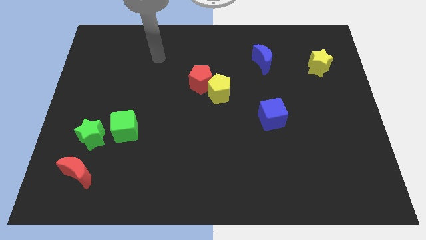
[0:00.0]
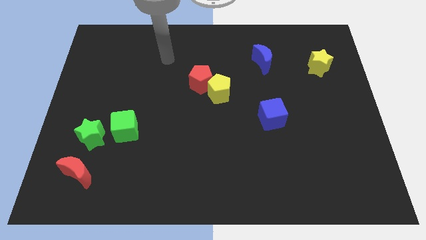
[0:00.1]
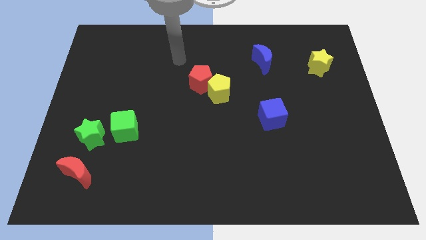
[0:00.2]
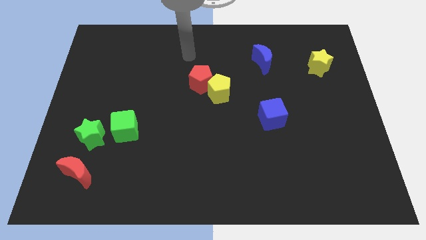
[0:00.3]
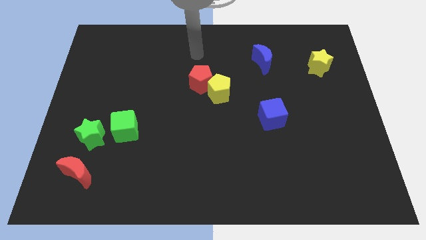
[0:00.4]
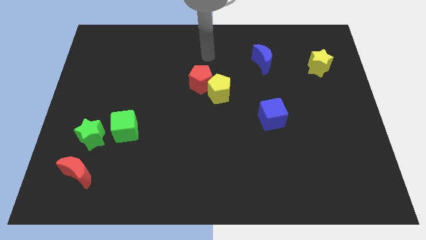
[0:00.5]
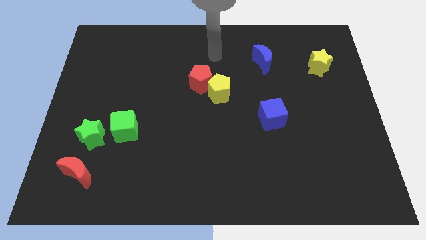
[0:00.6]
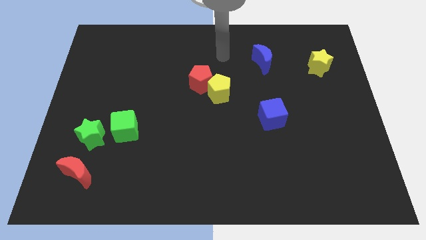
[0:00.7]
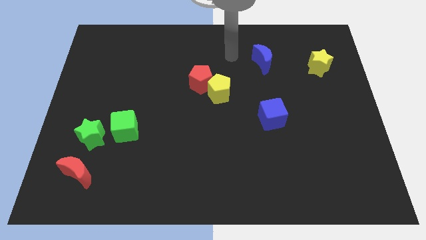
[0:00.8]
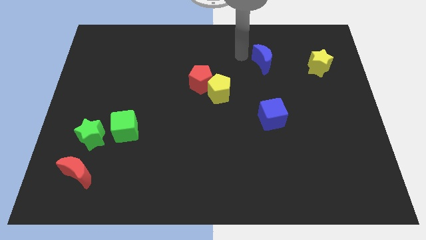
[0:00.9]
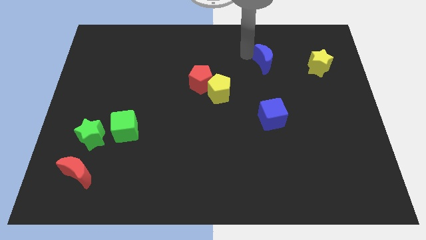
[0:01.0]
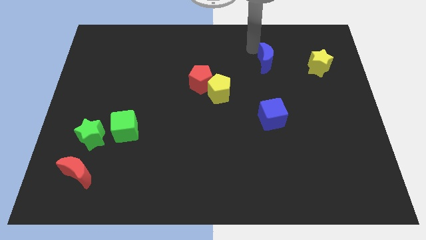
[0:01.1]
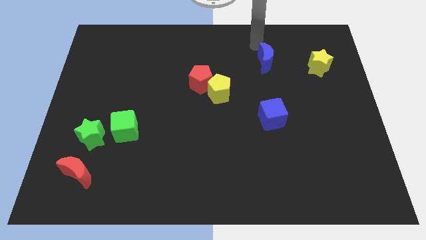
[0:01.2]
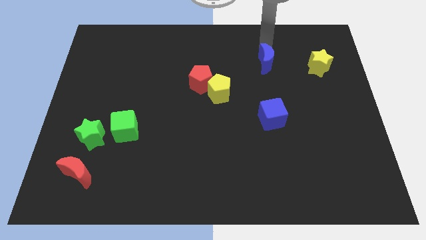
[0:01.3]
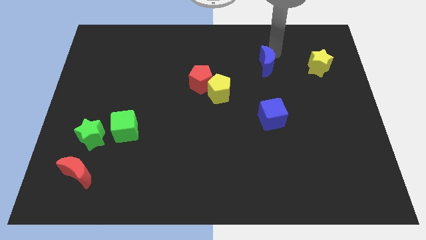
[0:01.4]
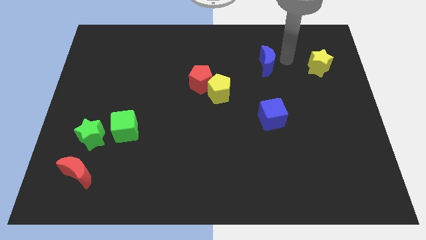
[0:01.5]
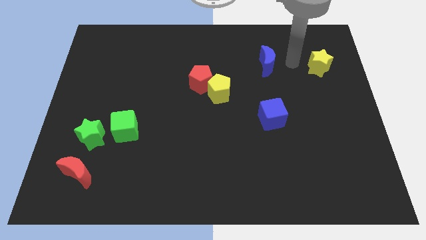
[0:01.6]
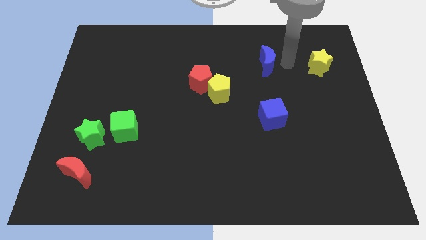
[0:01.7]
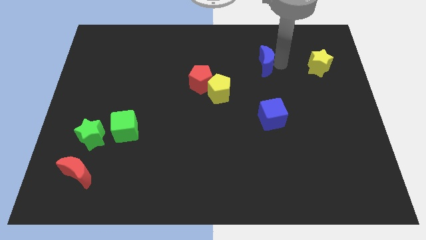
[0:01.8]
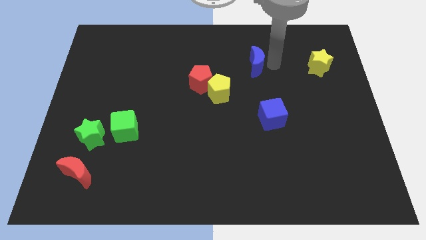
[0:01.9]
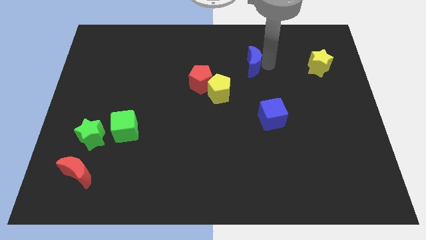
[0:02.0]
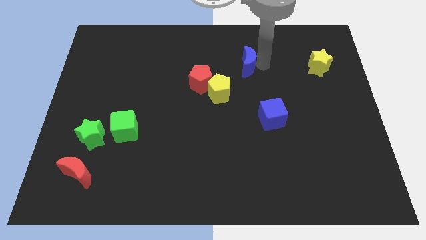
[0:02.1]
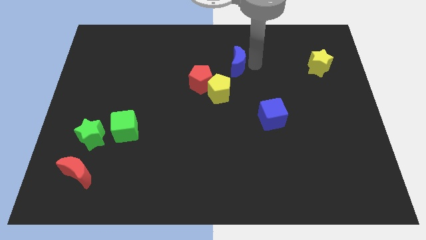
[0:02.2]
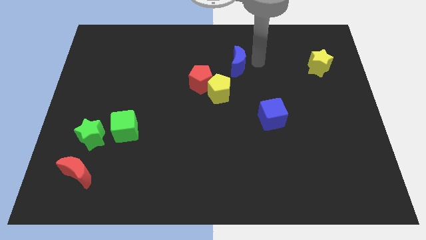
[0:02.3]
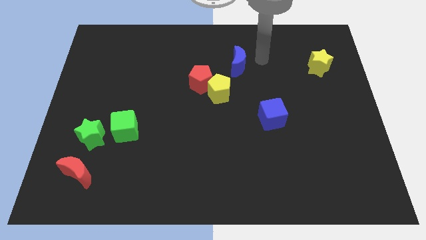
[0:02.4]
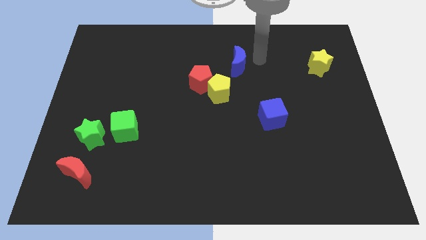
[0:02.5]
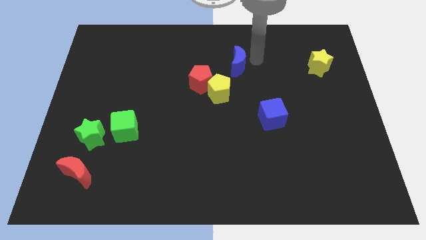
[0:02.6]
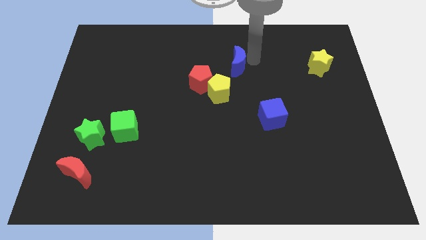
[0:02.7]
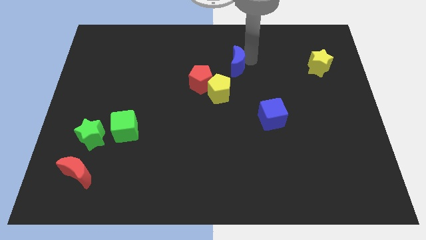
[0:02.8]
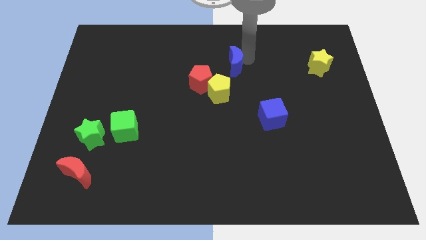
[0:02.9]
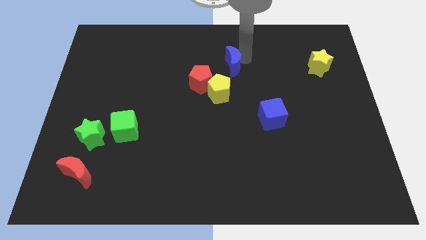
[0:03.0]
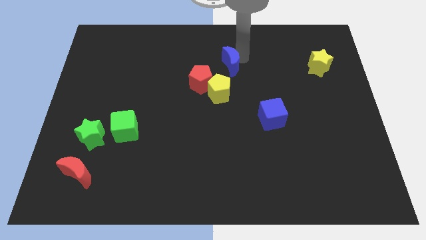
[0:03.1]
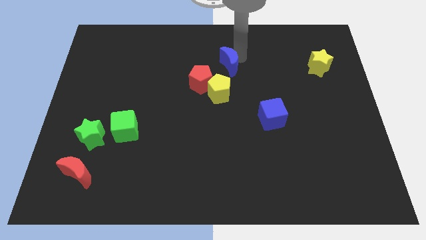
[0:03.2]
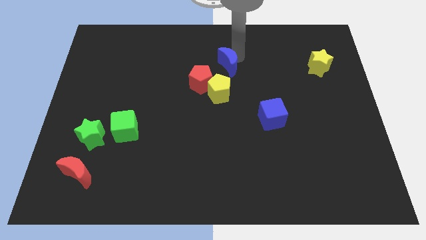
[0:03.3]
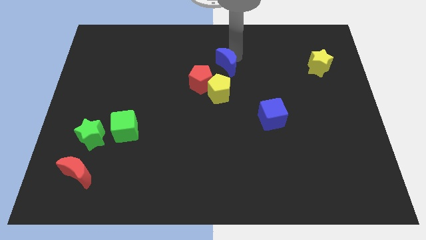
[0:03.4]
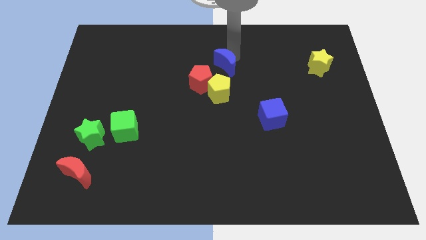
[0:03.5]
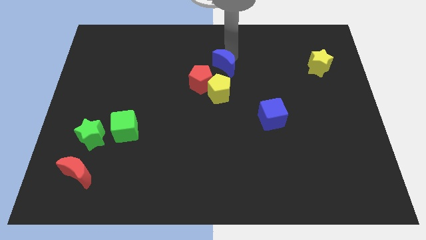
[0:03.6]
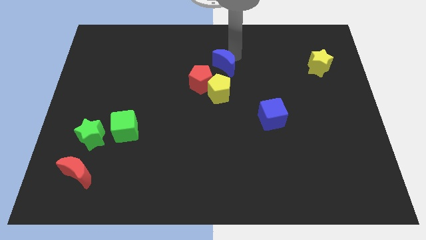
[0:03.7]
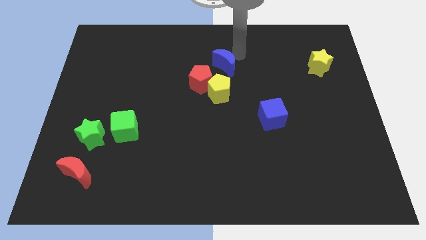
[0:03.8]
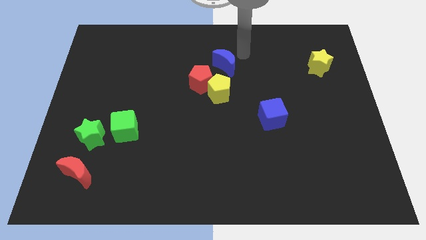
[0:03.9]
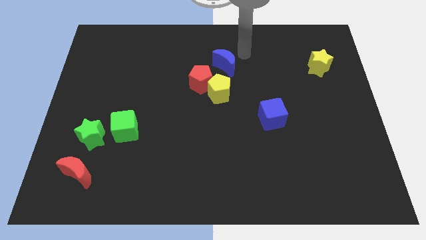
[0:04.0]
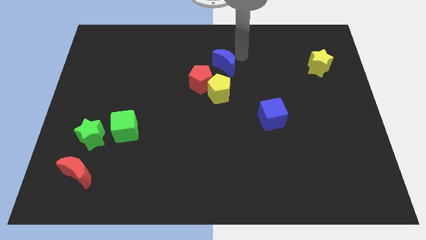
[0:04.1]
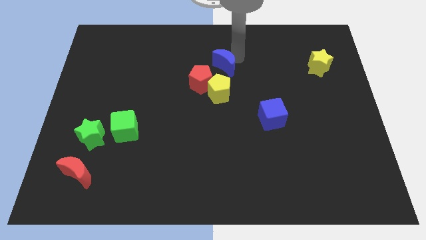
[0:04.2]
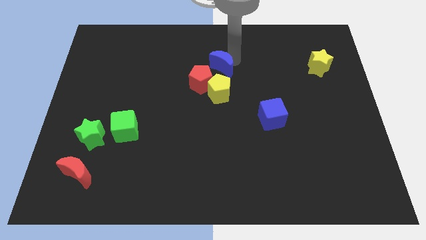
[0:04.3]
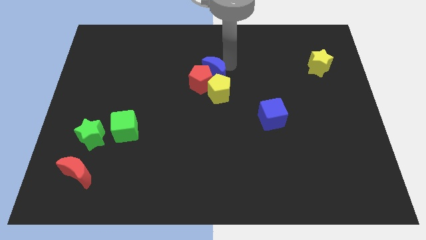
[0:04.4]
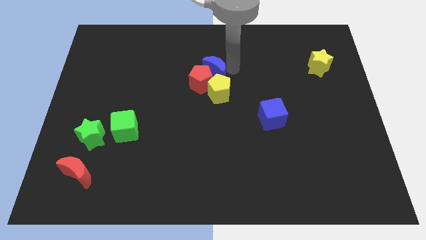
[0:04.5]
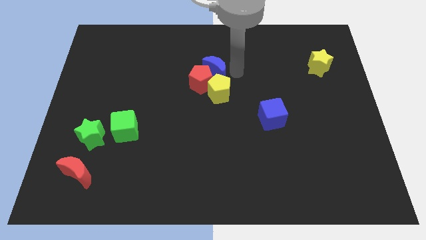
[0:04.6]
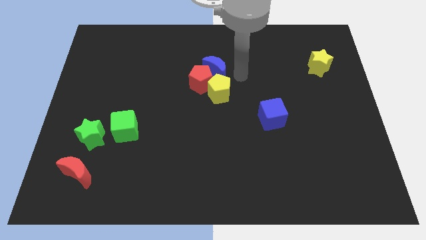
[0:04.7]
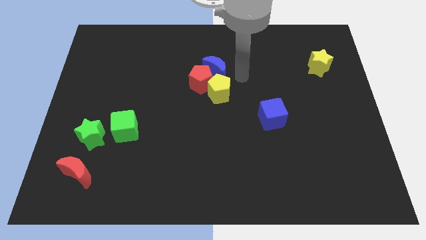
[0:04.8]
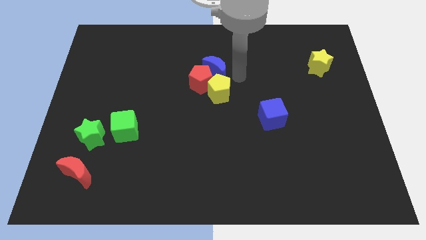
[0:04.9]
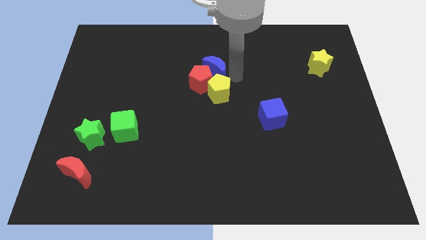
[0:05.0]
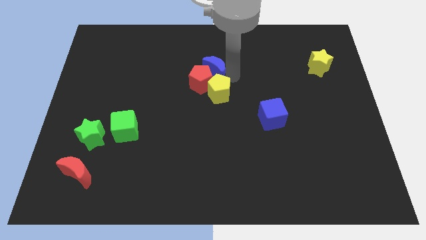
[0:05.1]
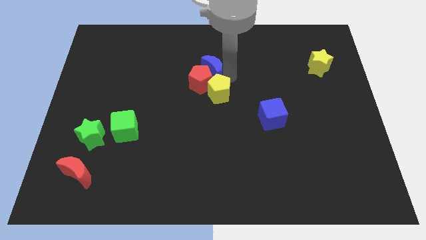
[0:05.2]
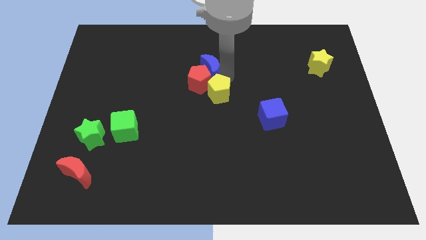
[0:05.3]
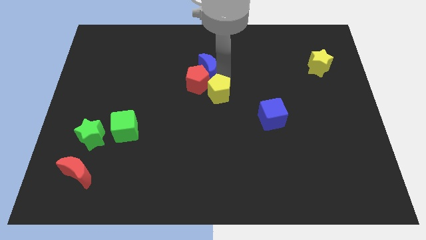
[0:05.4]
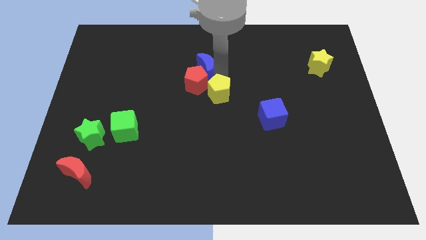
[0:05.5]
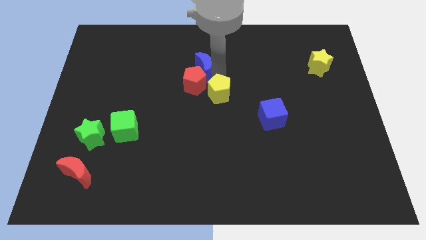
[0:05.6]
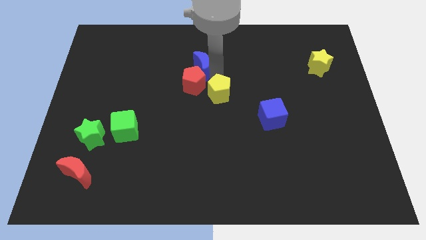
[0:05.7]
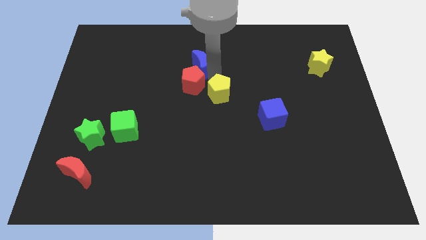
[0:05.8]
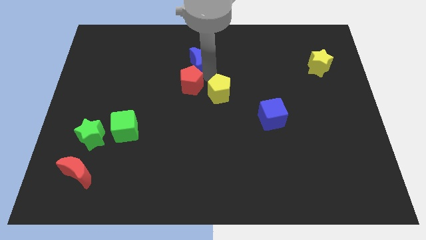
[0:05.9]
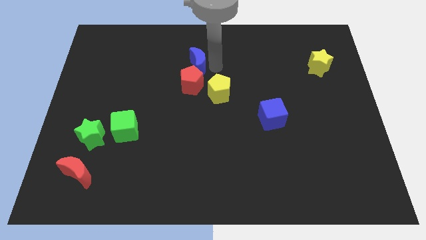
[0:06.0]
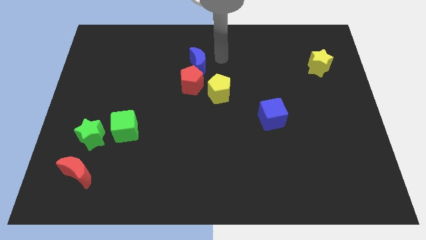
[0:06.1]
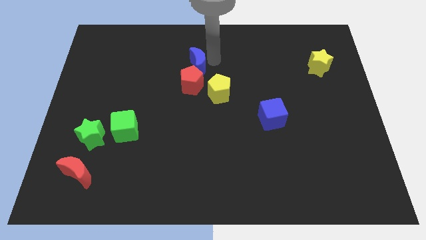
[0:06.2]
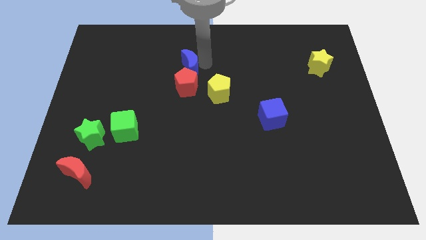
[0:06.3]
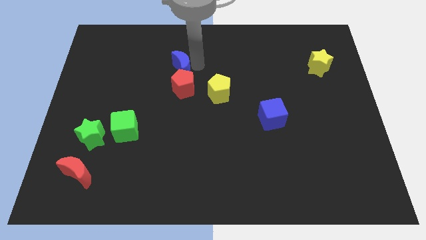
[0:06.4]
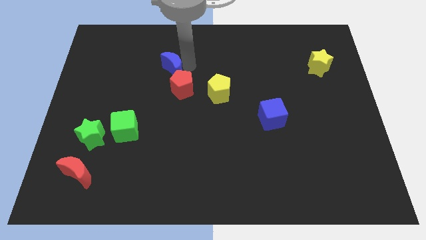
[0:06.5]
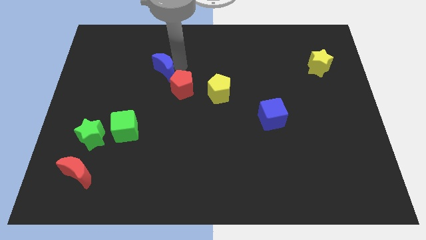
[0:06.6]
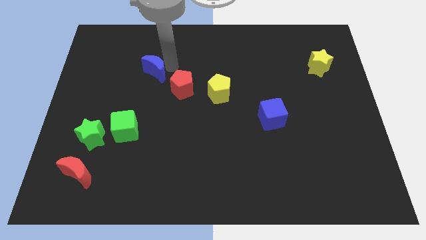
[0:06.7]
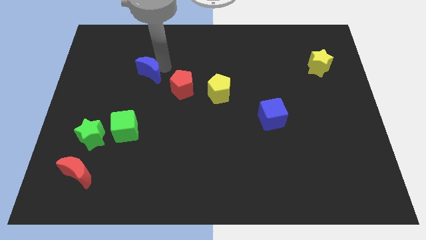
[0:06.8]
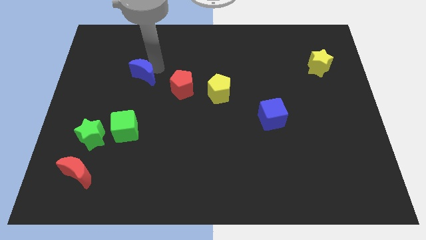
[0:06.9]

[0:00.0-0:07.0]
move the blue moon just left of the red pentagon
